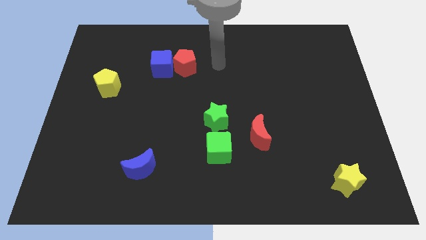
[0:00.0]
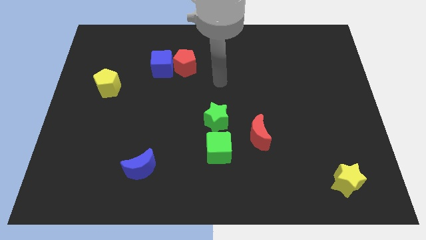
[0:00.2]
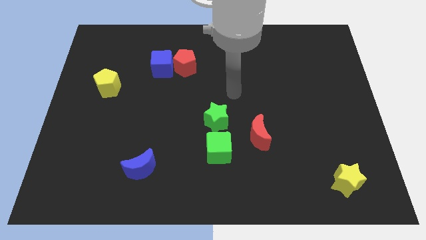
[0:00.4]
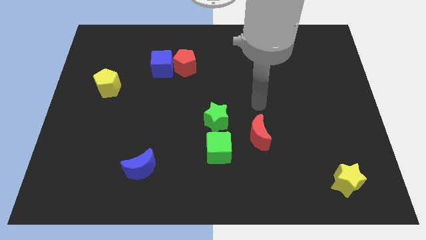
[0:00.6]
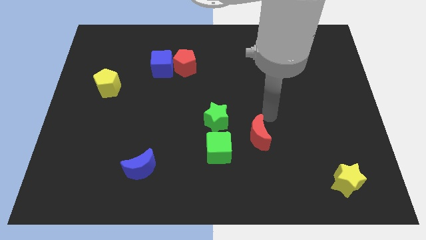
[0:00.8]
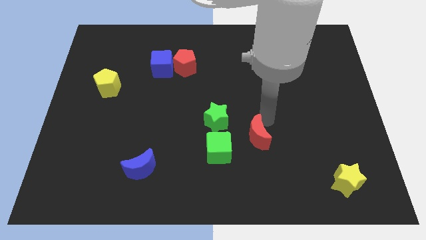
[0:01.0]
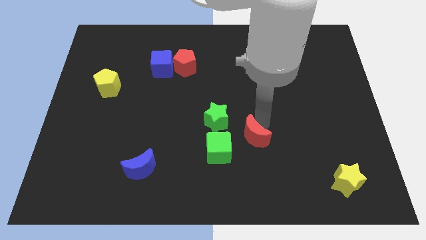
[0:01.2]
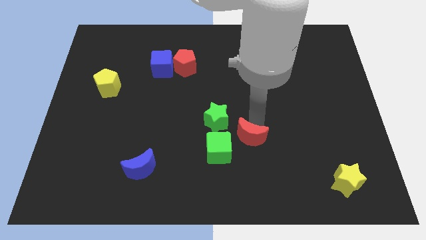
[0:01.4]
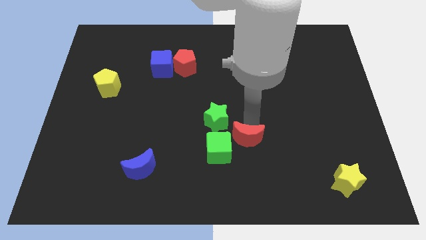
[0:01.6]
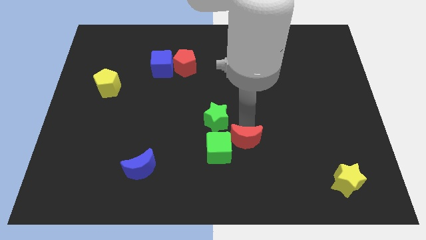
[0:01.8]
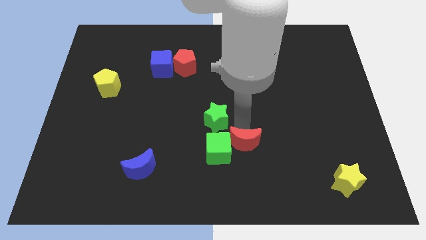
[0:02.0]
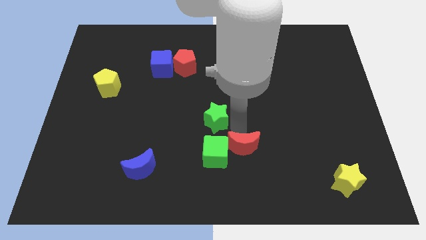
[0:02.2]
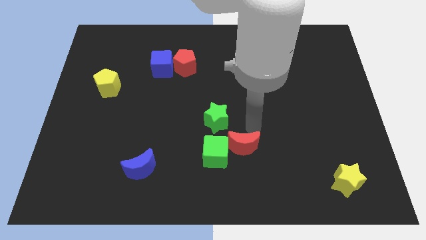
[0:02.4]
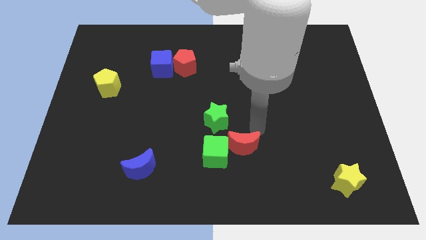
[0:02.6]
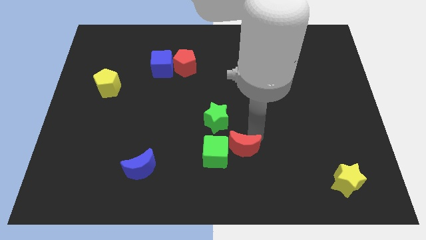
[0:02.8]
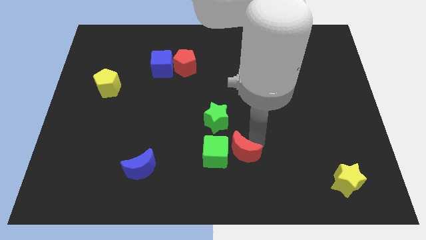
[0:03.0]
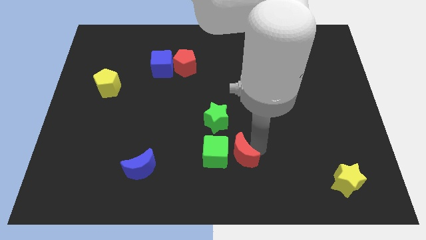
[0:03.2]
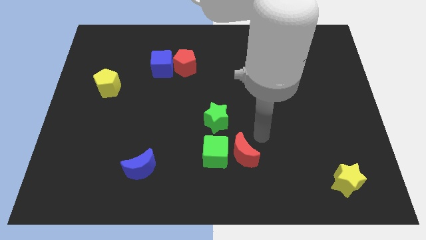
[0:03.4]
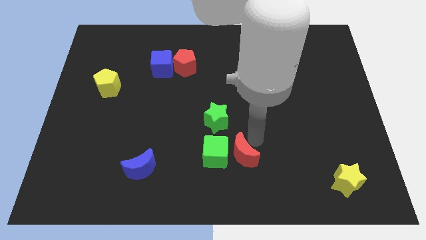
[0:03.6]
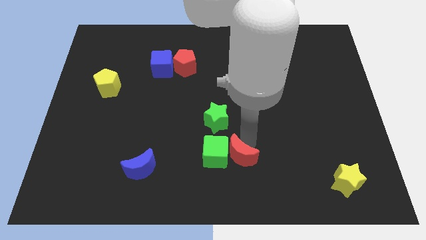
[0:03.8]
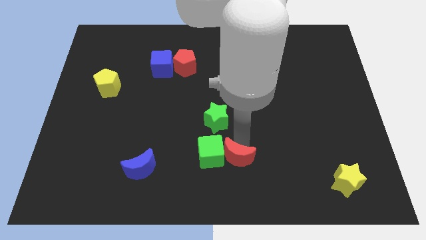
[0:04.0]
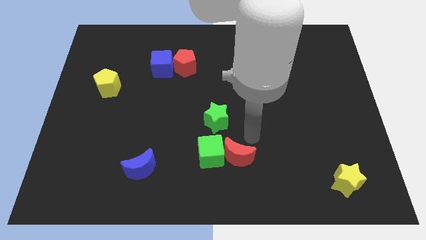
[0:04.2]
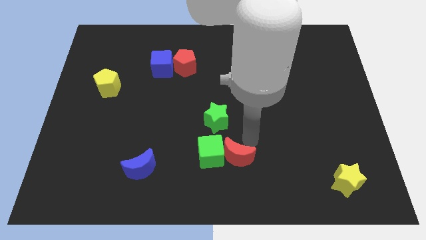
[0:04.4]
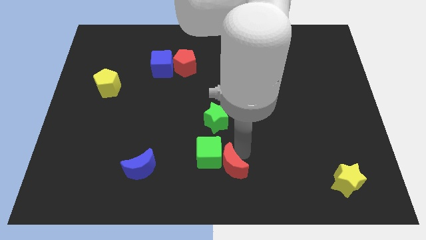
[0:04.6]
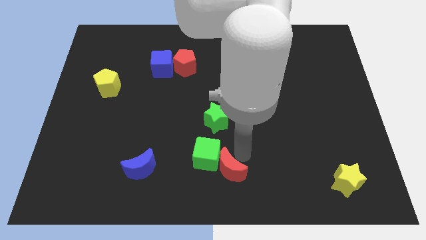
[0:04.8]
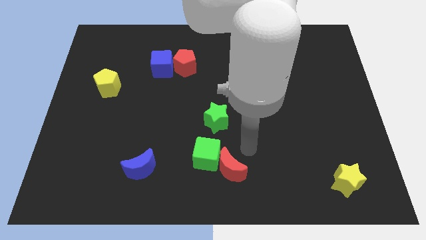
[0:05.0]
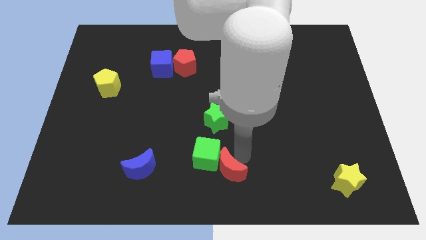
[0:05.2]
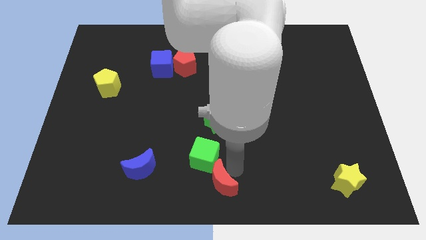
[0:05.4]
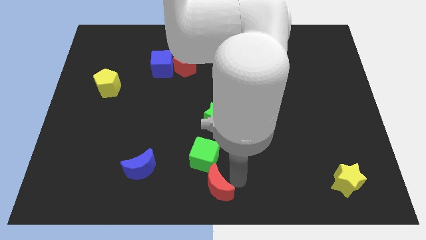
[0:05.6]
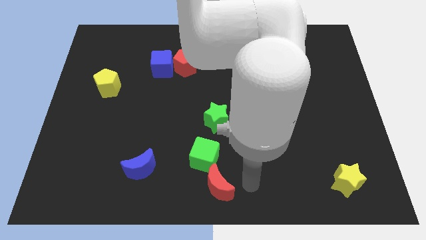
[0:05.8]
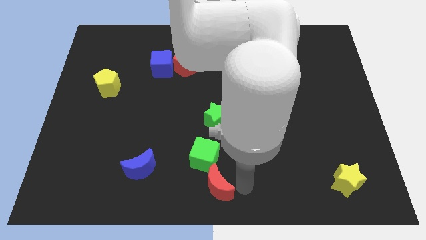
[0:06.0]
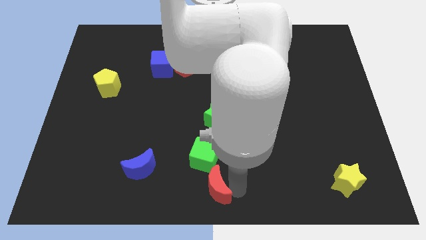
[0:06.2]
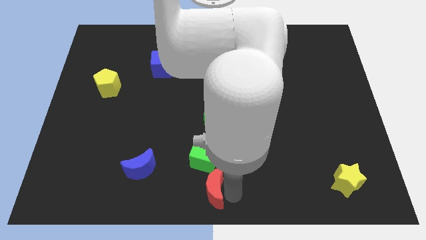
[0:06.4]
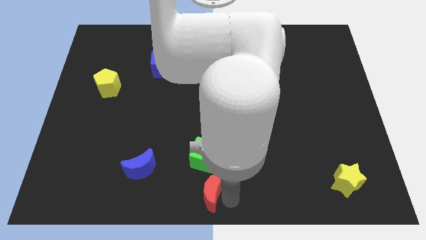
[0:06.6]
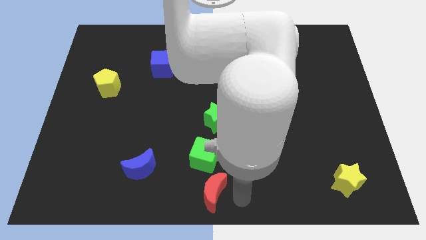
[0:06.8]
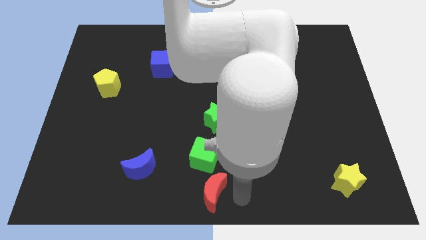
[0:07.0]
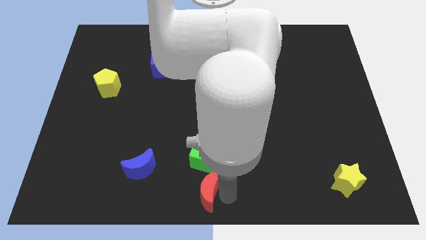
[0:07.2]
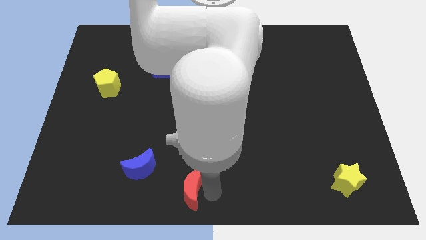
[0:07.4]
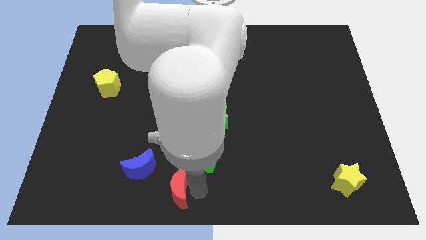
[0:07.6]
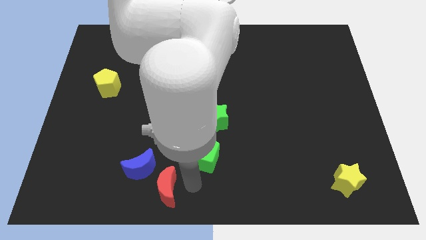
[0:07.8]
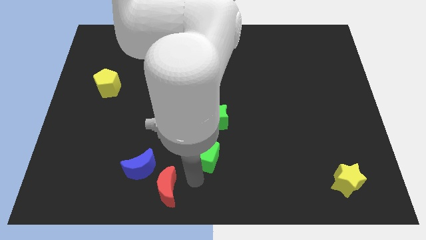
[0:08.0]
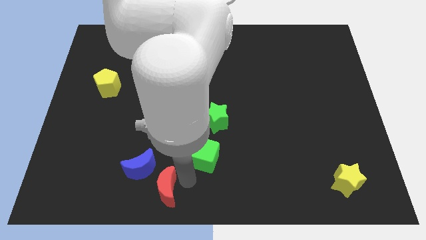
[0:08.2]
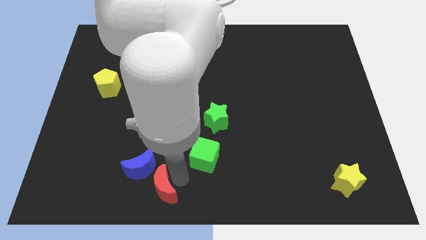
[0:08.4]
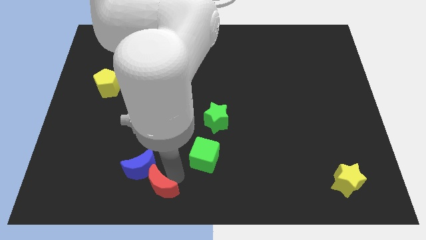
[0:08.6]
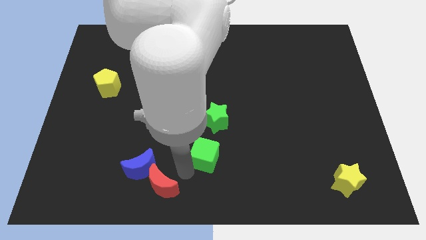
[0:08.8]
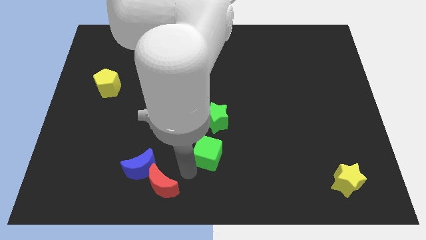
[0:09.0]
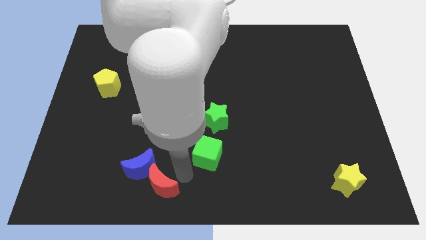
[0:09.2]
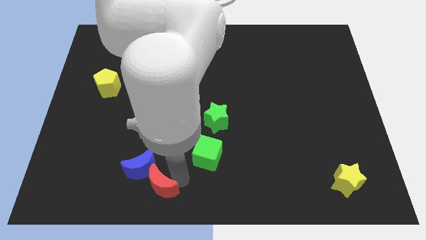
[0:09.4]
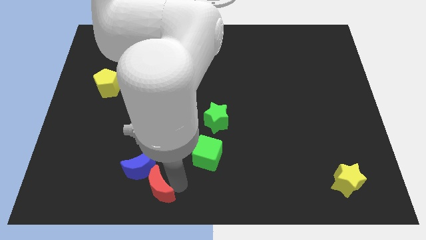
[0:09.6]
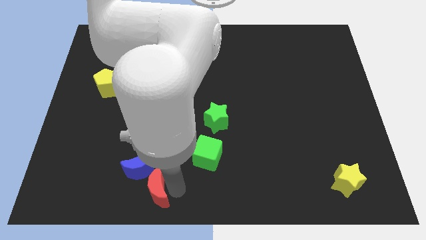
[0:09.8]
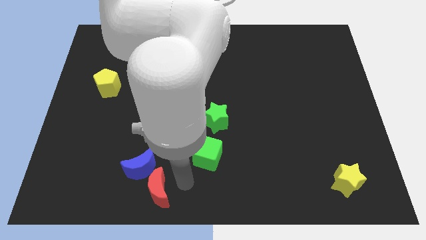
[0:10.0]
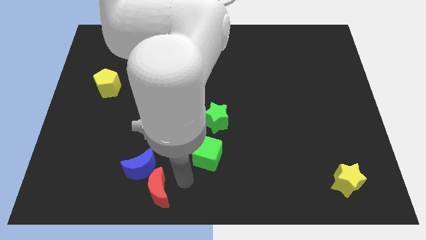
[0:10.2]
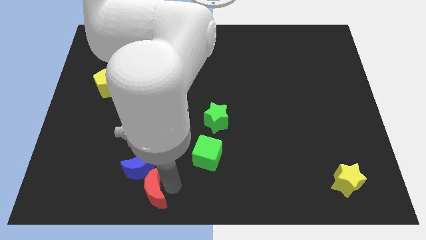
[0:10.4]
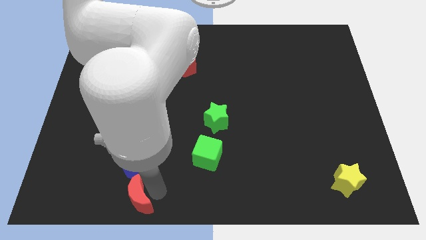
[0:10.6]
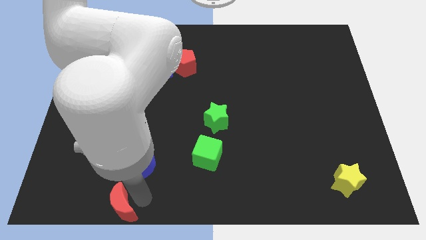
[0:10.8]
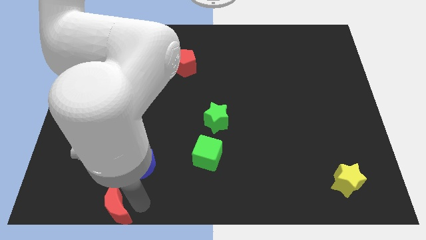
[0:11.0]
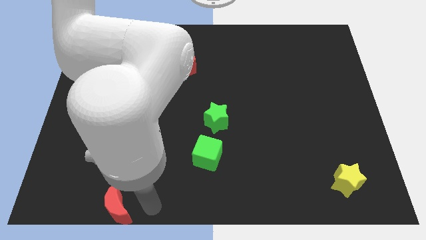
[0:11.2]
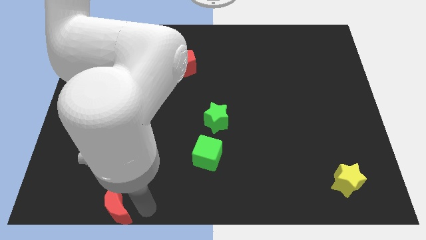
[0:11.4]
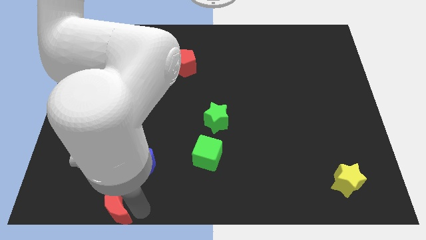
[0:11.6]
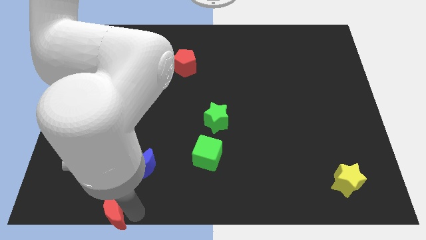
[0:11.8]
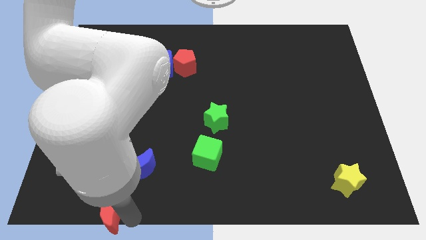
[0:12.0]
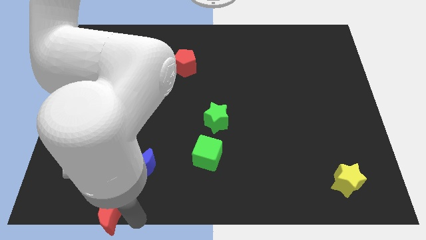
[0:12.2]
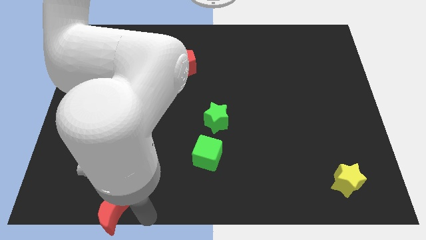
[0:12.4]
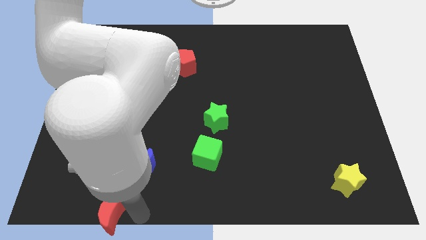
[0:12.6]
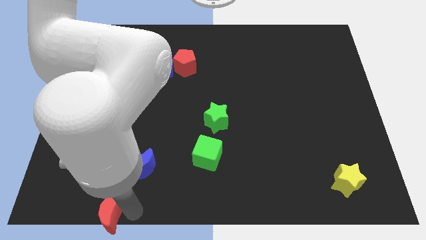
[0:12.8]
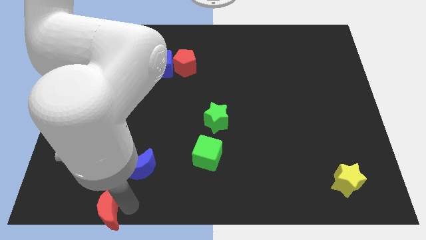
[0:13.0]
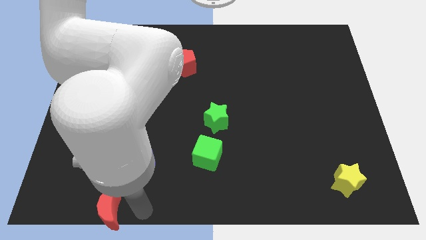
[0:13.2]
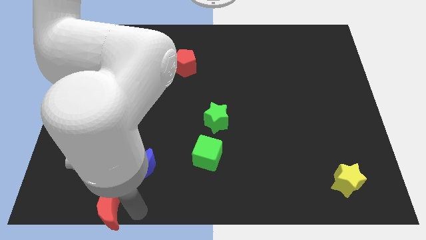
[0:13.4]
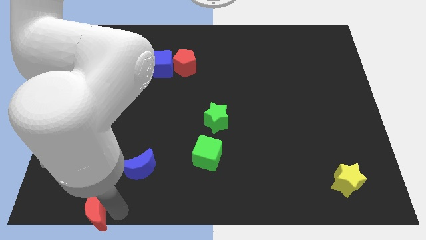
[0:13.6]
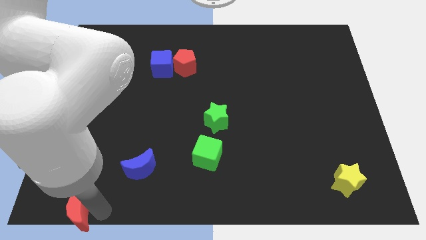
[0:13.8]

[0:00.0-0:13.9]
put the red moon to the bottom left corner
